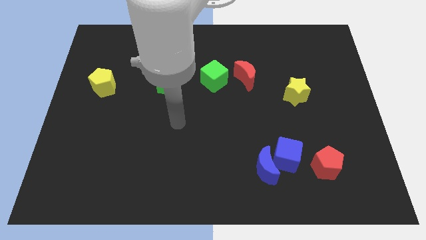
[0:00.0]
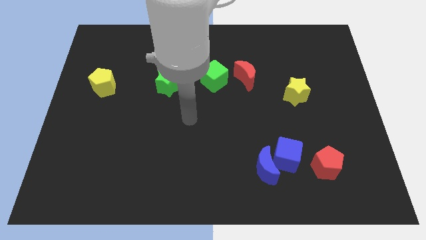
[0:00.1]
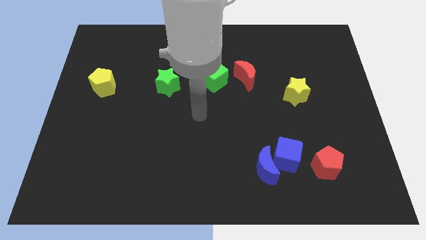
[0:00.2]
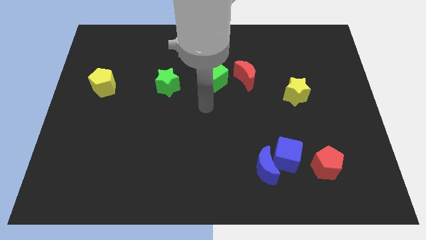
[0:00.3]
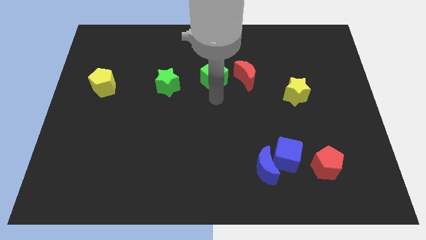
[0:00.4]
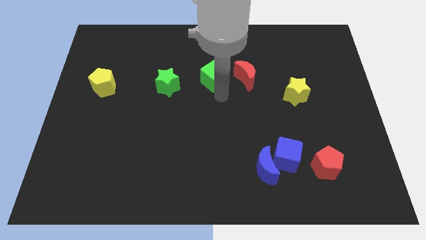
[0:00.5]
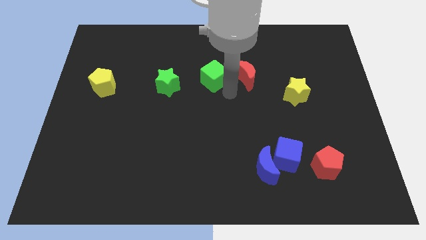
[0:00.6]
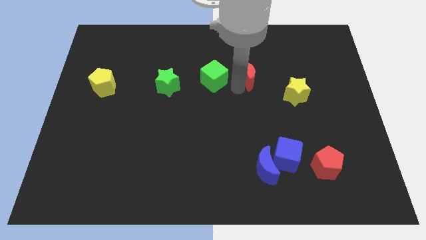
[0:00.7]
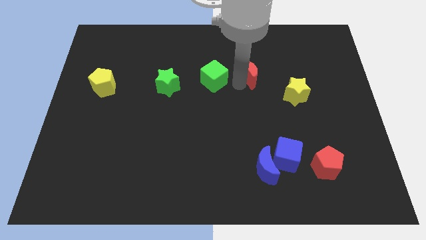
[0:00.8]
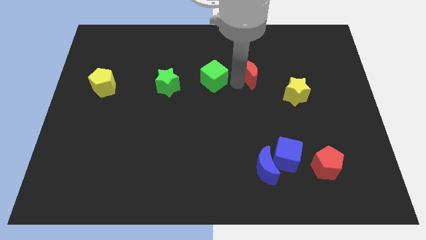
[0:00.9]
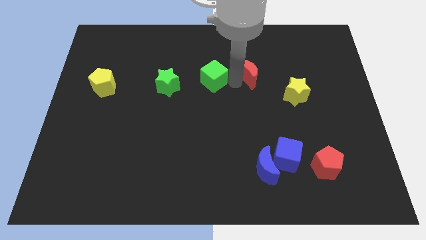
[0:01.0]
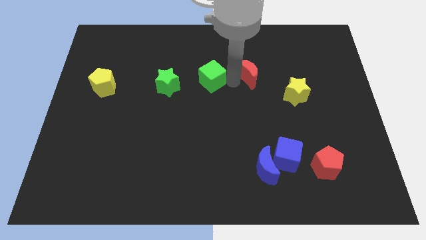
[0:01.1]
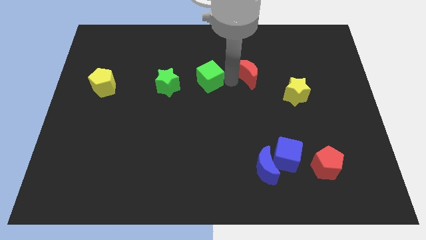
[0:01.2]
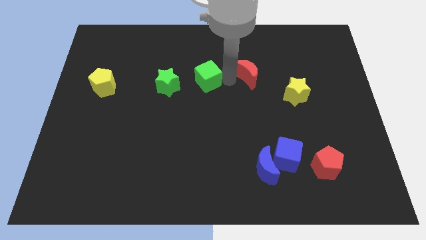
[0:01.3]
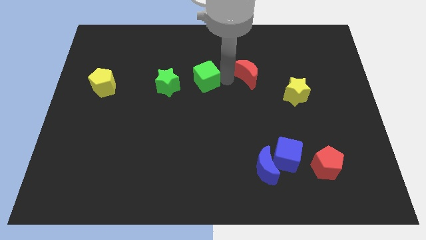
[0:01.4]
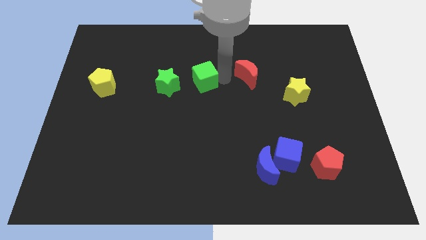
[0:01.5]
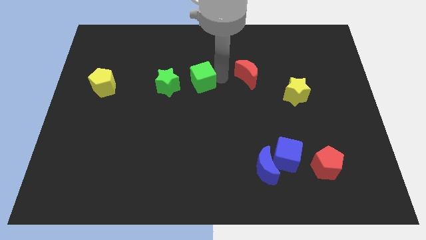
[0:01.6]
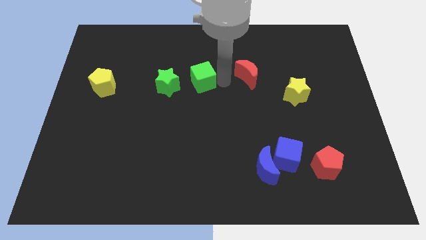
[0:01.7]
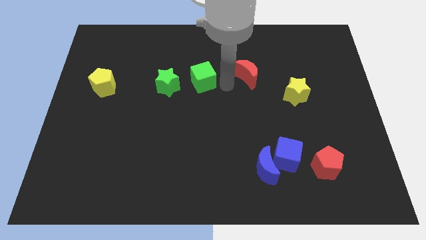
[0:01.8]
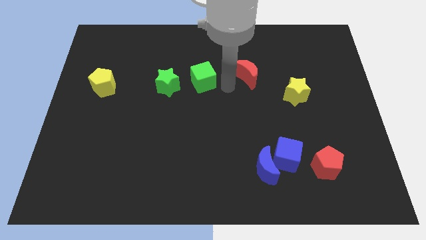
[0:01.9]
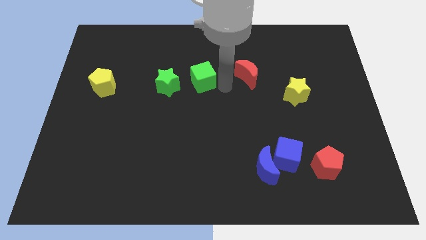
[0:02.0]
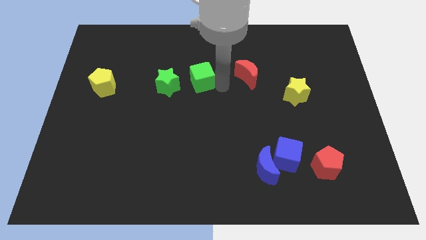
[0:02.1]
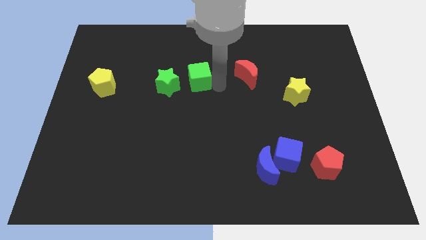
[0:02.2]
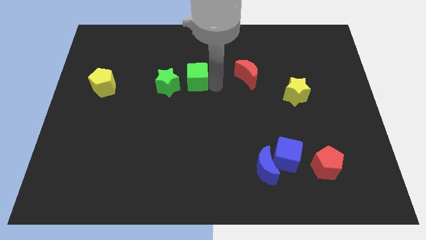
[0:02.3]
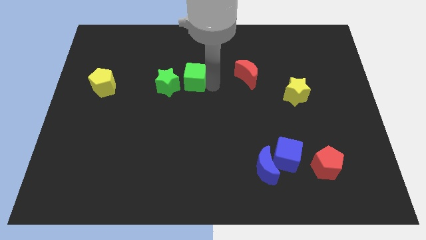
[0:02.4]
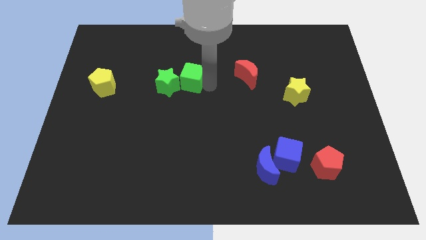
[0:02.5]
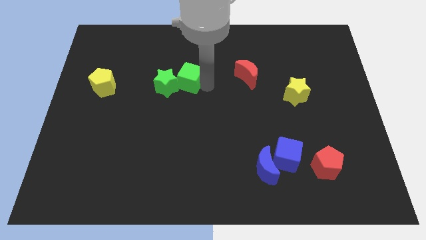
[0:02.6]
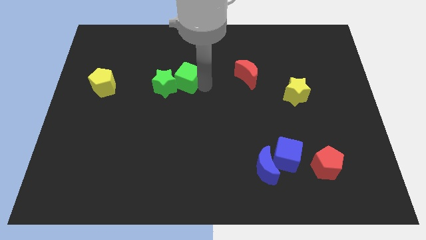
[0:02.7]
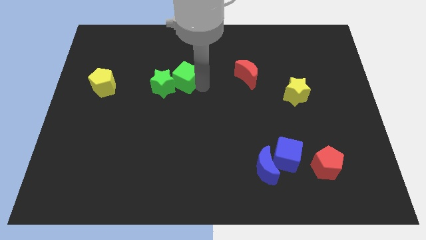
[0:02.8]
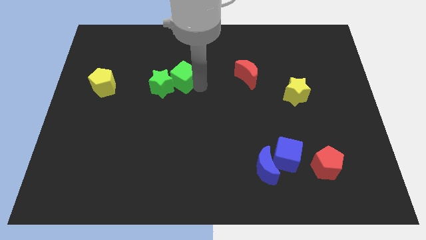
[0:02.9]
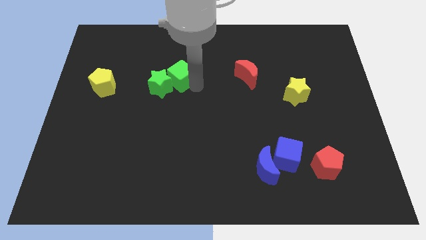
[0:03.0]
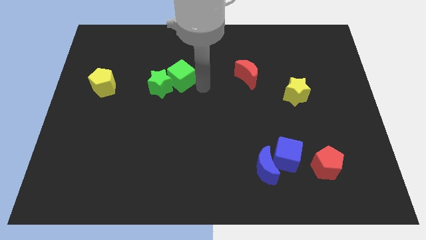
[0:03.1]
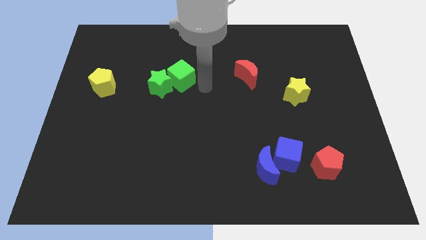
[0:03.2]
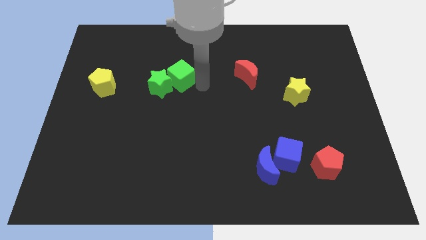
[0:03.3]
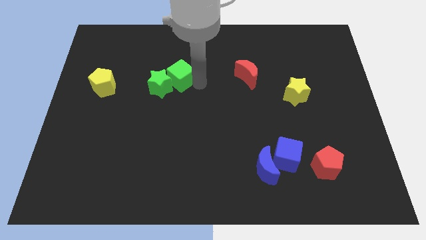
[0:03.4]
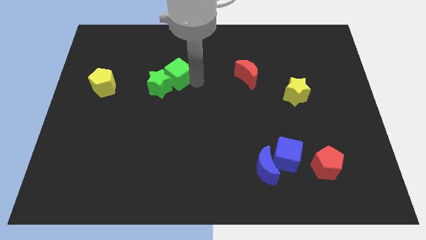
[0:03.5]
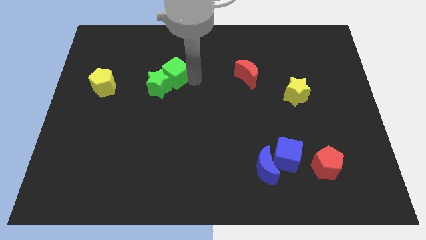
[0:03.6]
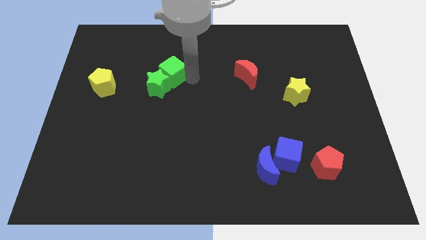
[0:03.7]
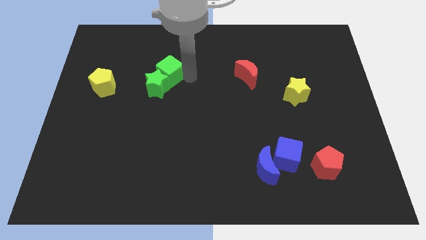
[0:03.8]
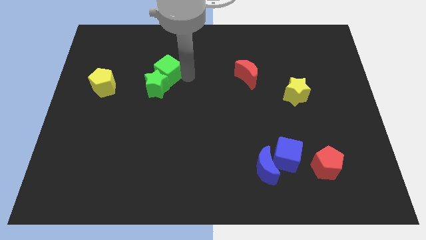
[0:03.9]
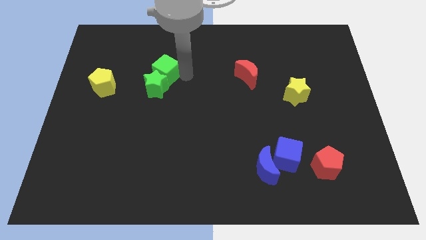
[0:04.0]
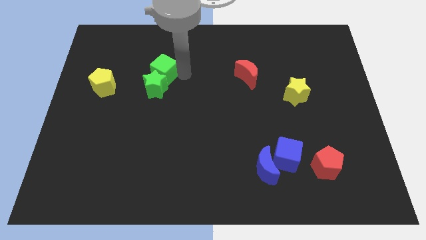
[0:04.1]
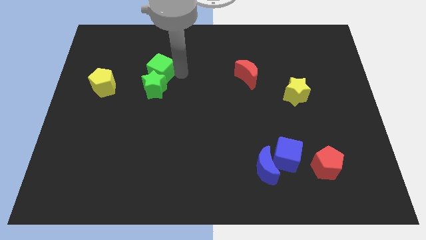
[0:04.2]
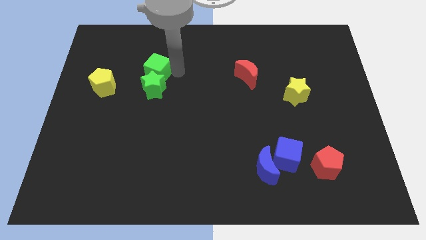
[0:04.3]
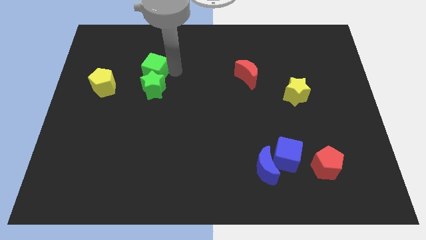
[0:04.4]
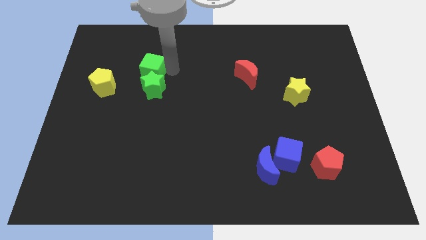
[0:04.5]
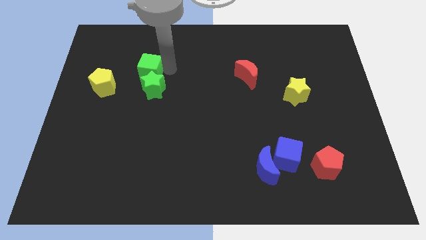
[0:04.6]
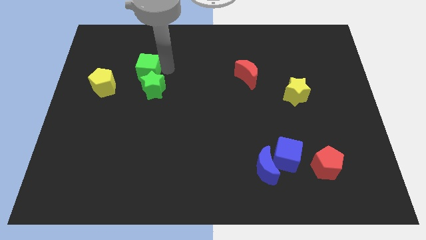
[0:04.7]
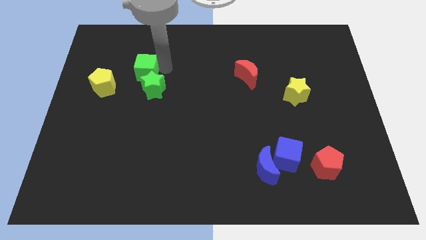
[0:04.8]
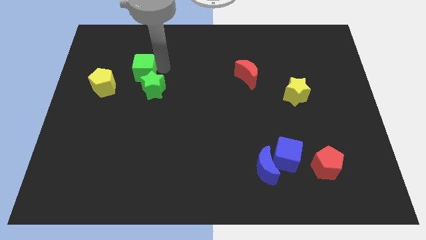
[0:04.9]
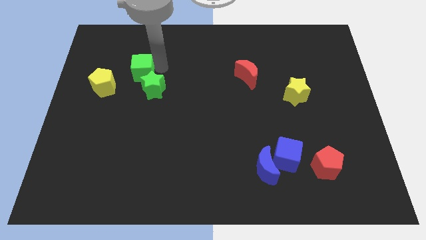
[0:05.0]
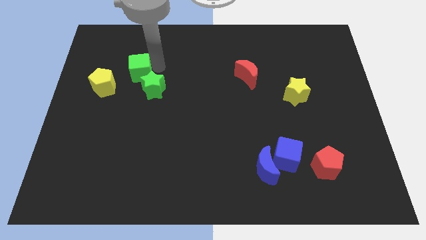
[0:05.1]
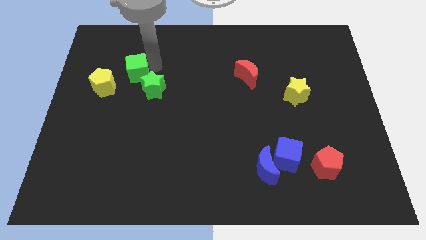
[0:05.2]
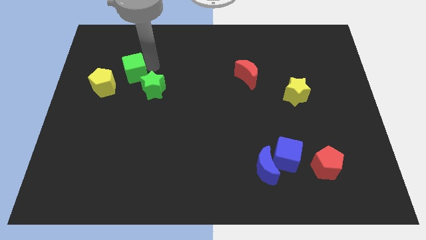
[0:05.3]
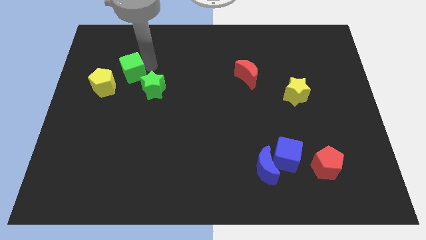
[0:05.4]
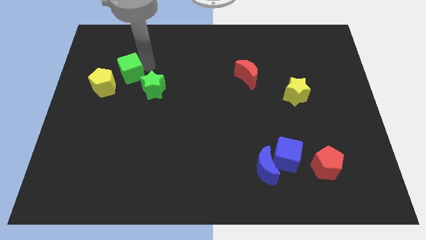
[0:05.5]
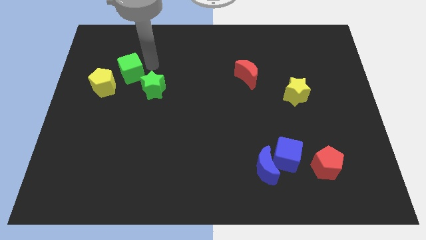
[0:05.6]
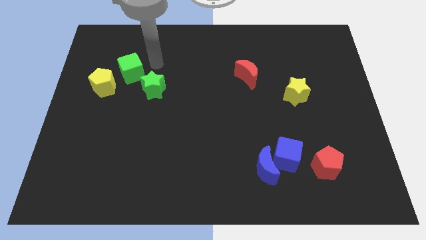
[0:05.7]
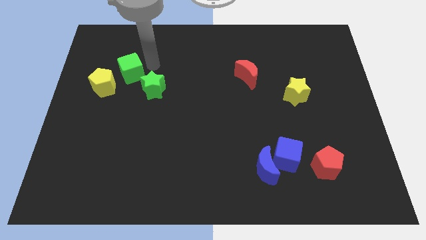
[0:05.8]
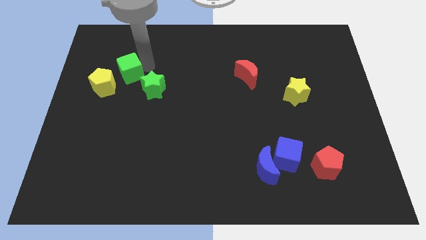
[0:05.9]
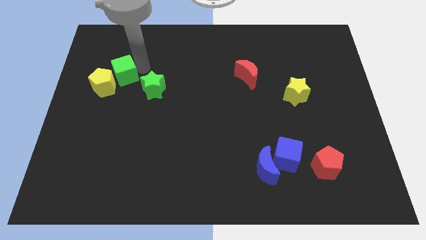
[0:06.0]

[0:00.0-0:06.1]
put the green cube close to the yellow pentagon

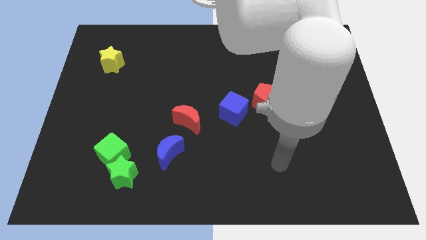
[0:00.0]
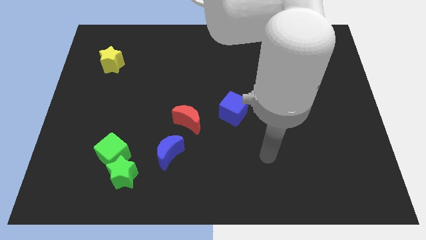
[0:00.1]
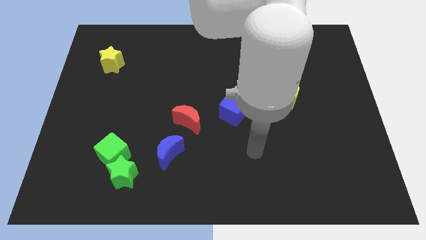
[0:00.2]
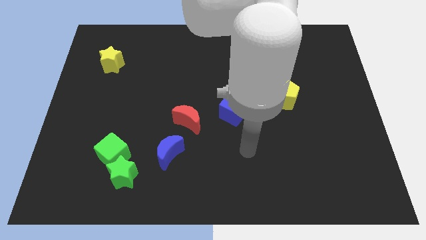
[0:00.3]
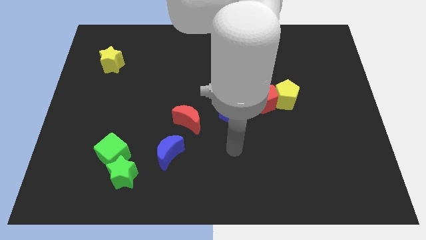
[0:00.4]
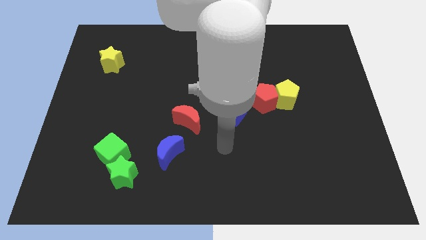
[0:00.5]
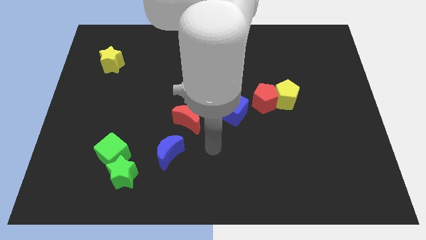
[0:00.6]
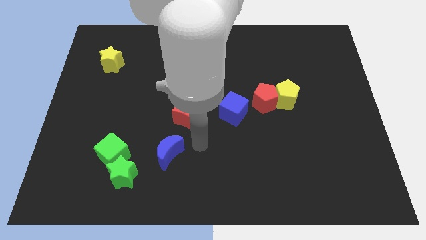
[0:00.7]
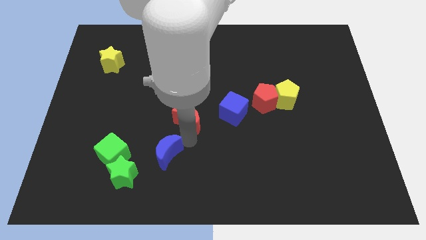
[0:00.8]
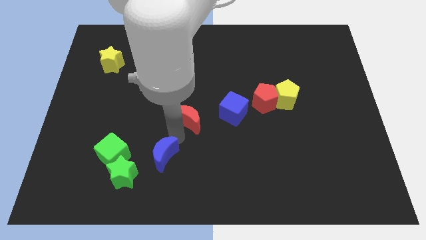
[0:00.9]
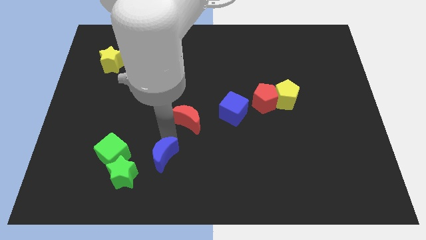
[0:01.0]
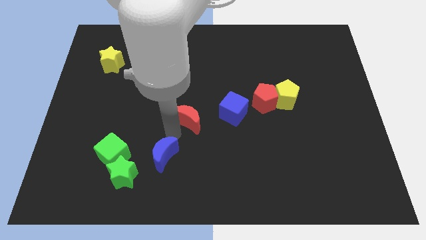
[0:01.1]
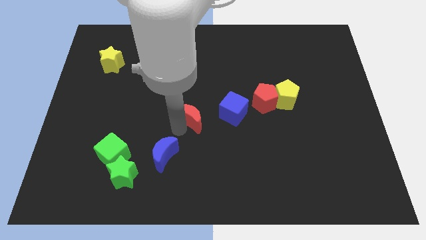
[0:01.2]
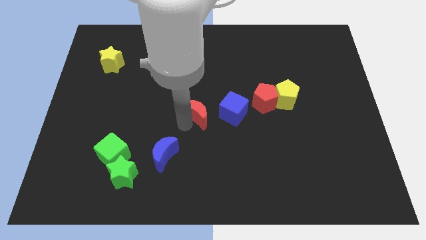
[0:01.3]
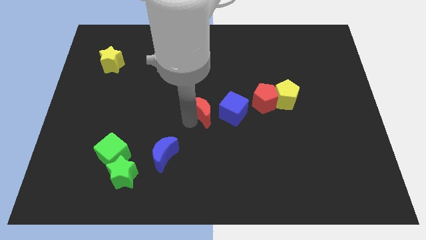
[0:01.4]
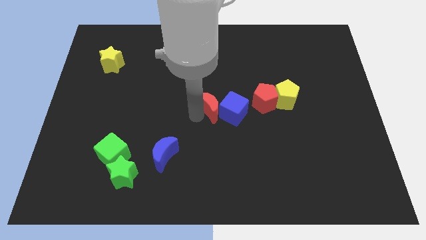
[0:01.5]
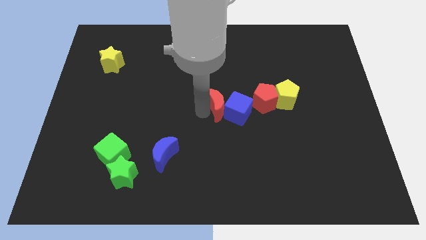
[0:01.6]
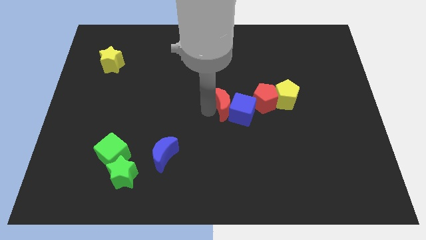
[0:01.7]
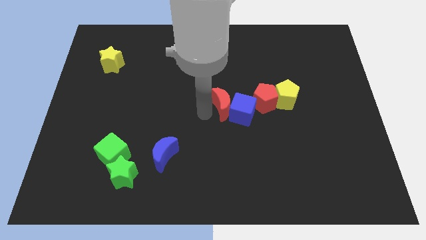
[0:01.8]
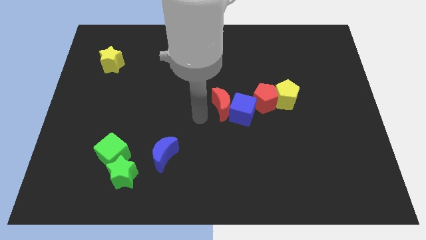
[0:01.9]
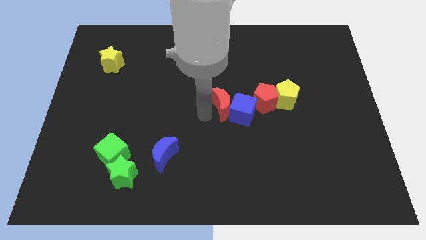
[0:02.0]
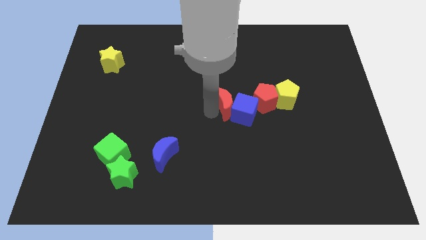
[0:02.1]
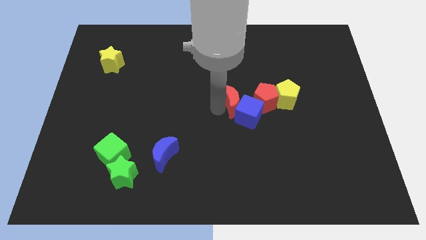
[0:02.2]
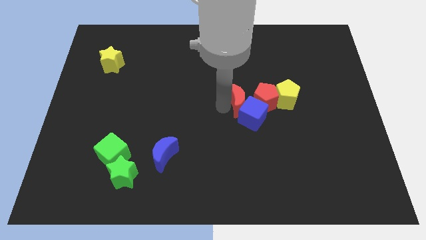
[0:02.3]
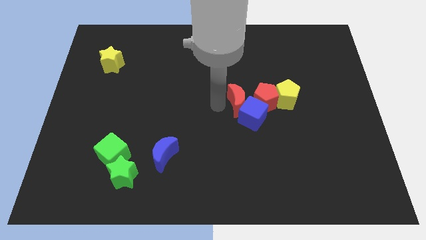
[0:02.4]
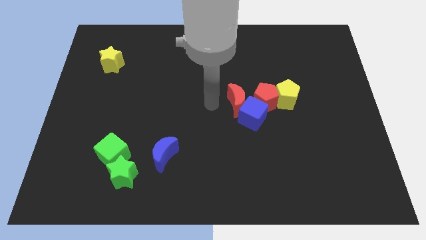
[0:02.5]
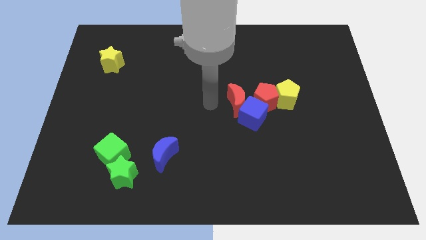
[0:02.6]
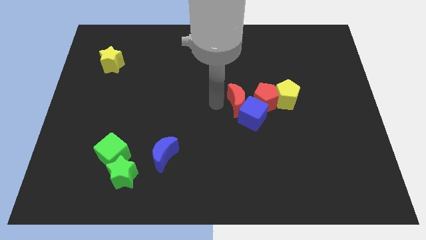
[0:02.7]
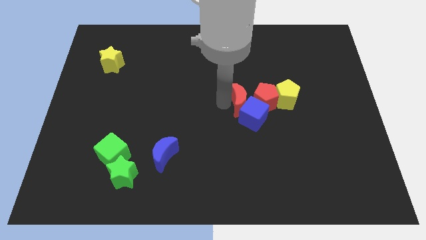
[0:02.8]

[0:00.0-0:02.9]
push the red moon to the red pentagon
